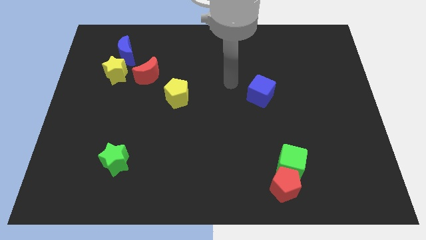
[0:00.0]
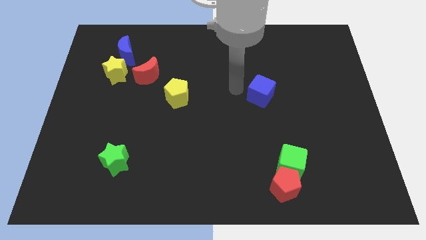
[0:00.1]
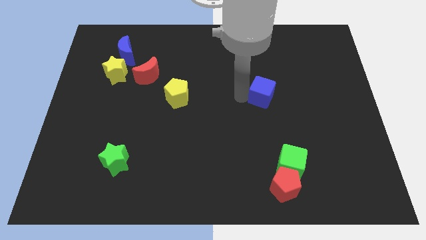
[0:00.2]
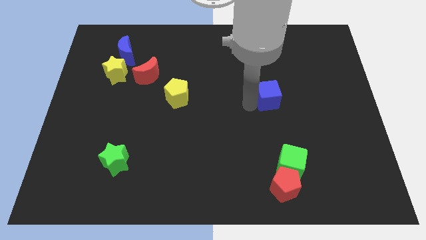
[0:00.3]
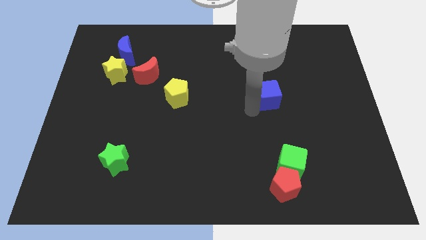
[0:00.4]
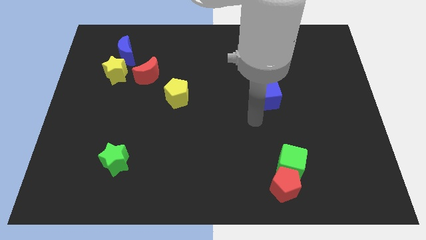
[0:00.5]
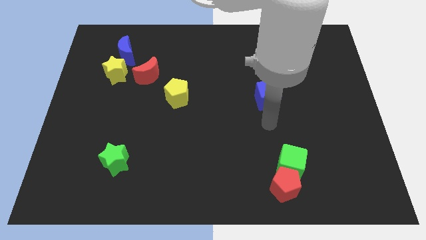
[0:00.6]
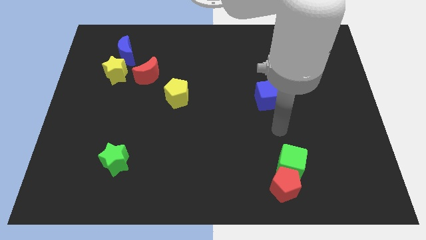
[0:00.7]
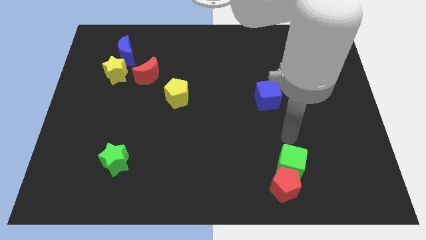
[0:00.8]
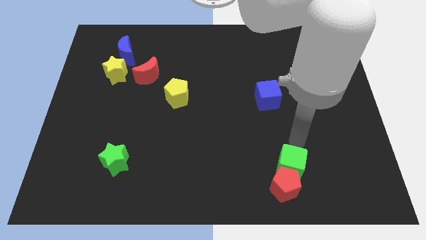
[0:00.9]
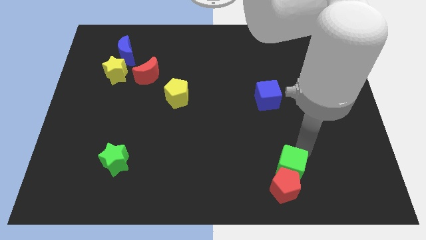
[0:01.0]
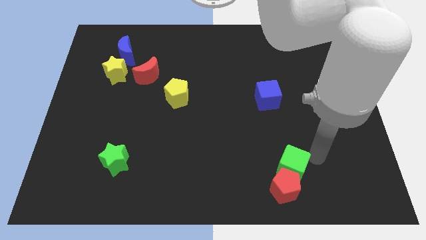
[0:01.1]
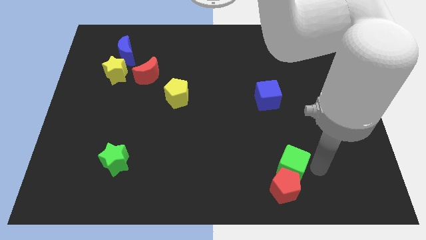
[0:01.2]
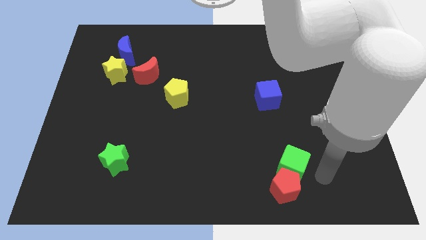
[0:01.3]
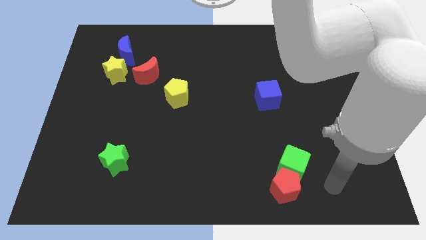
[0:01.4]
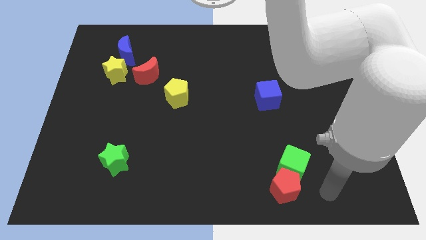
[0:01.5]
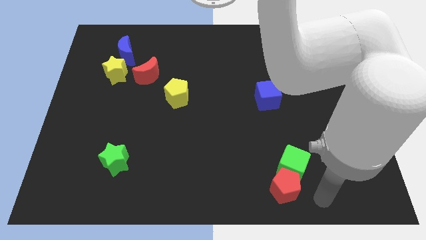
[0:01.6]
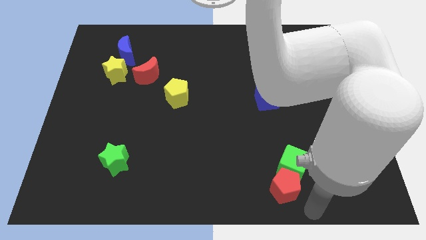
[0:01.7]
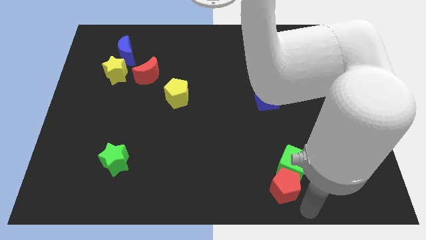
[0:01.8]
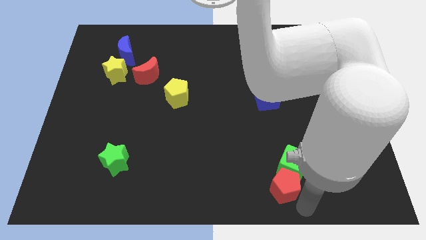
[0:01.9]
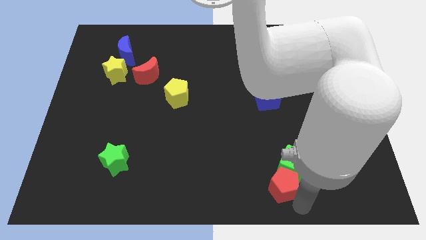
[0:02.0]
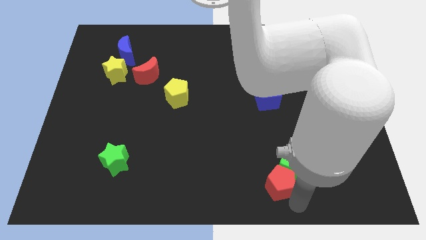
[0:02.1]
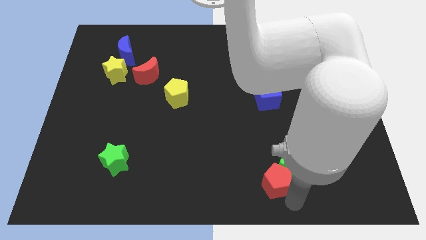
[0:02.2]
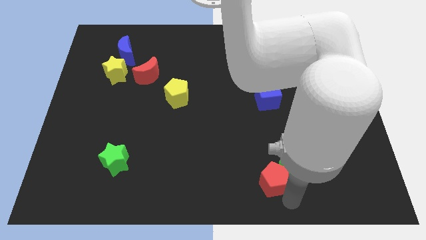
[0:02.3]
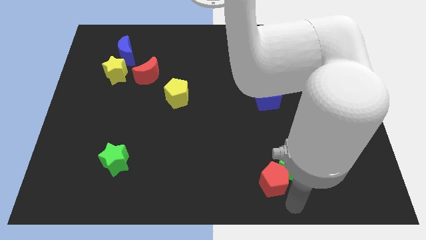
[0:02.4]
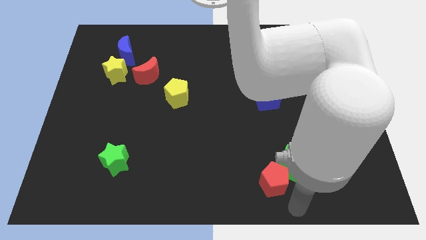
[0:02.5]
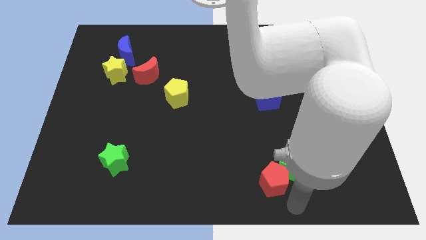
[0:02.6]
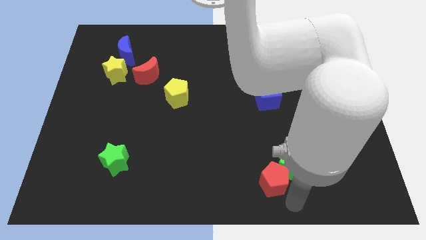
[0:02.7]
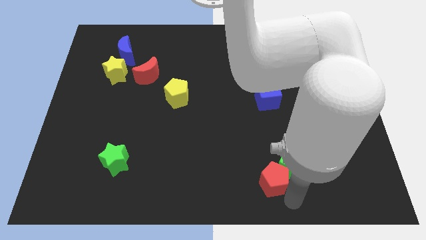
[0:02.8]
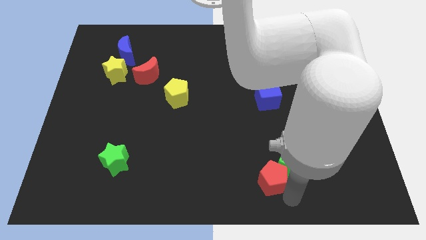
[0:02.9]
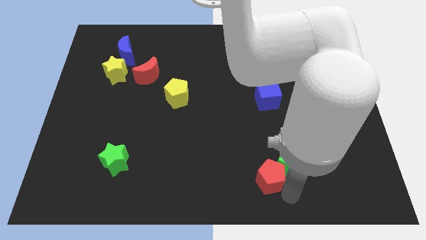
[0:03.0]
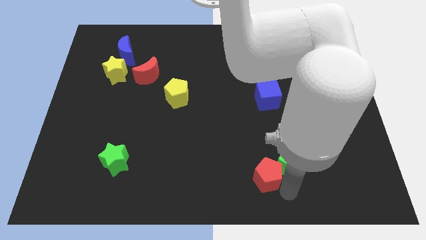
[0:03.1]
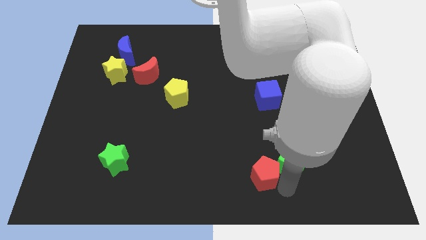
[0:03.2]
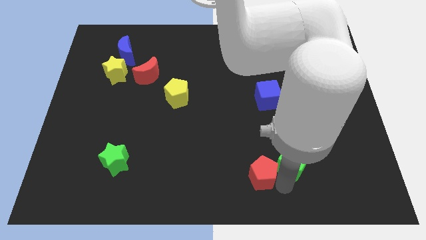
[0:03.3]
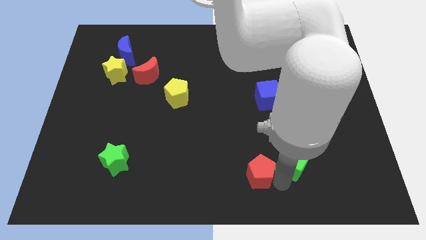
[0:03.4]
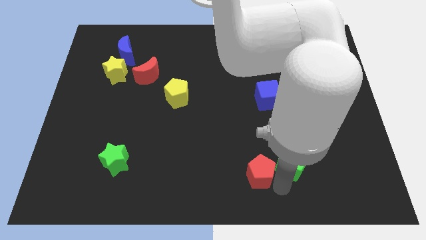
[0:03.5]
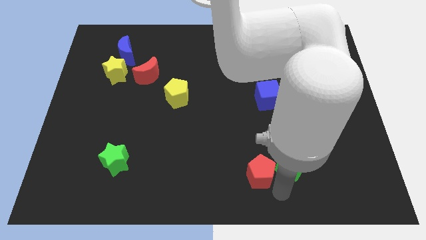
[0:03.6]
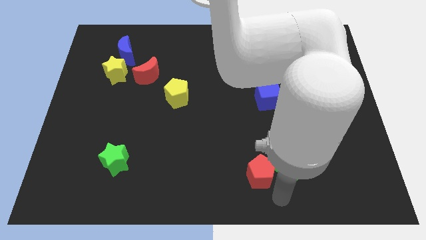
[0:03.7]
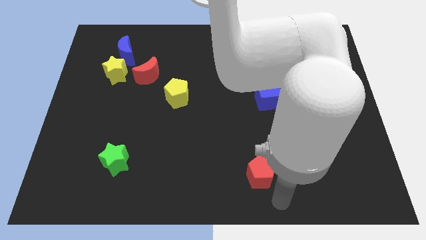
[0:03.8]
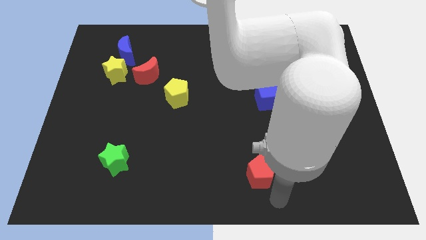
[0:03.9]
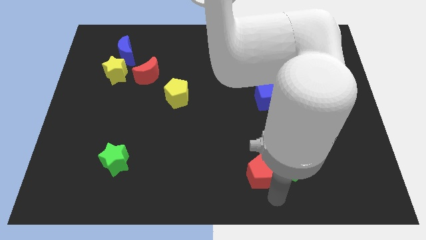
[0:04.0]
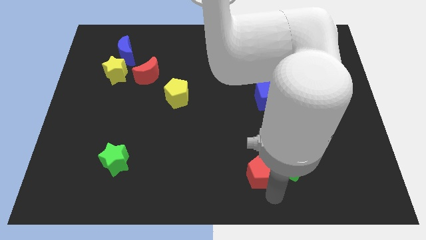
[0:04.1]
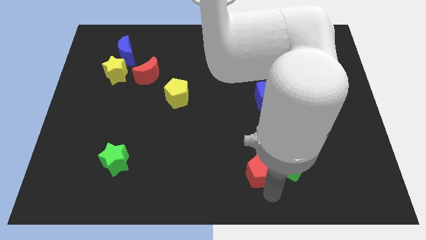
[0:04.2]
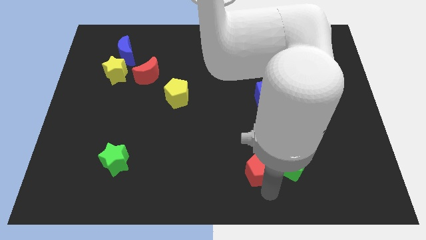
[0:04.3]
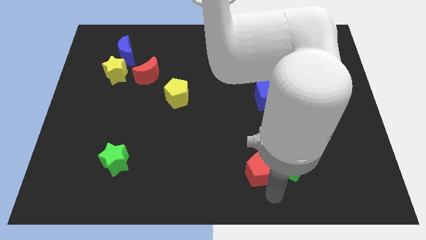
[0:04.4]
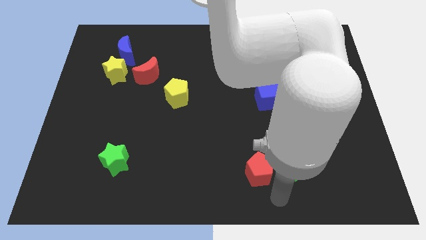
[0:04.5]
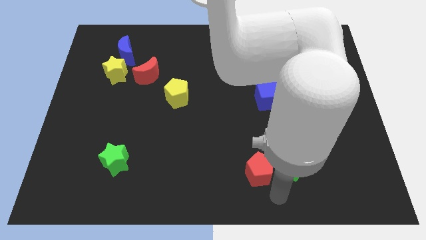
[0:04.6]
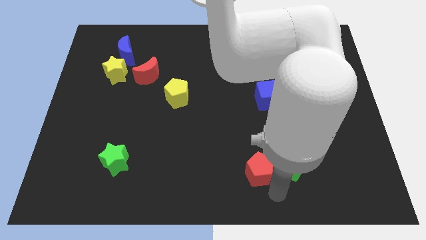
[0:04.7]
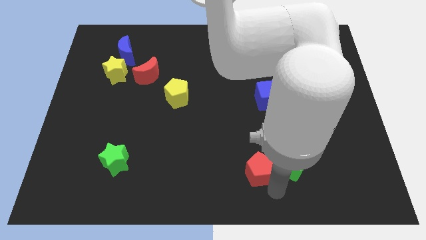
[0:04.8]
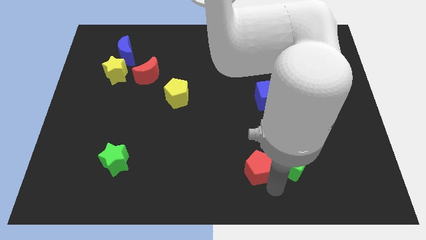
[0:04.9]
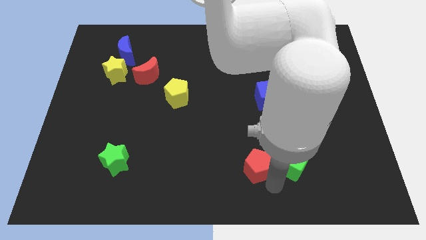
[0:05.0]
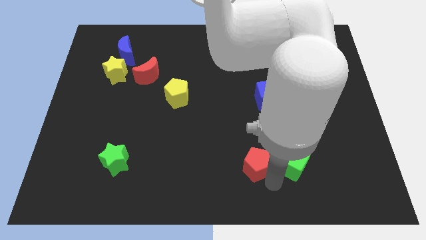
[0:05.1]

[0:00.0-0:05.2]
push the red pentagon slightly up and to the left diagonally

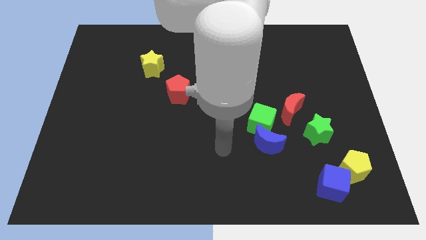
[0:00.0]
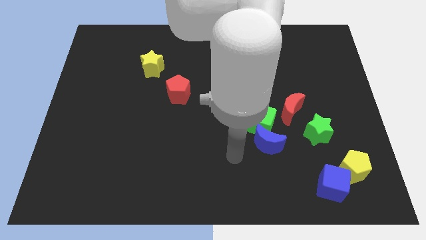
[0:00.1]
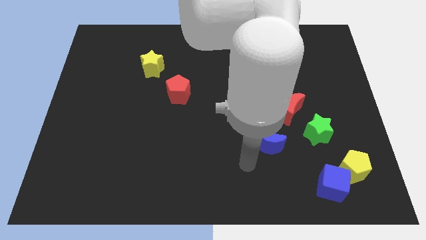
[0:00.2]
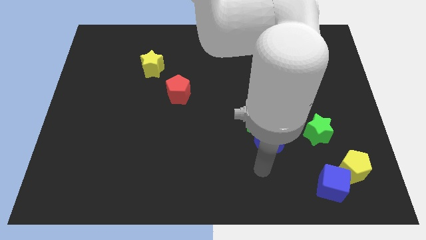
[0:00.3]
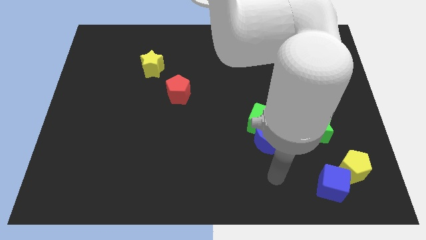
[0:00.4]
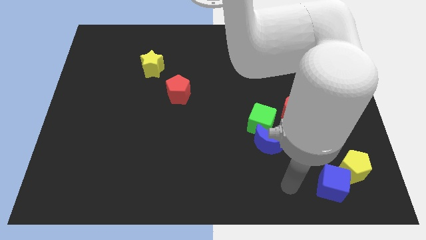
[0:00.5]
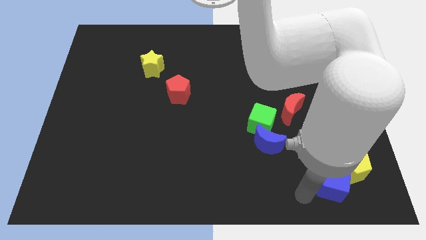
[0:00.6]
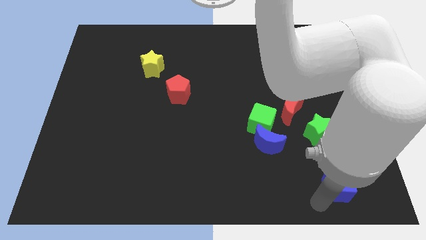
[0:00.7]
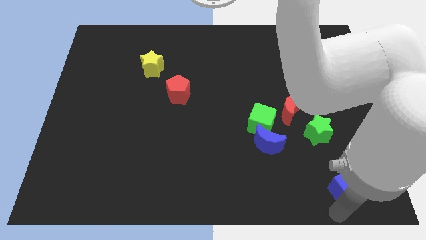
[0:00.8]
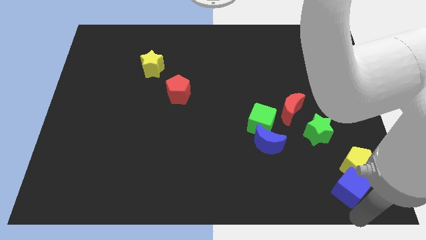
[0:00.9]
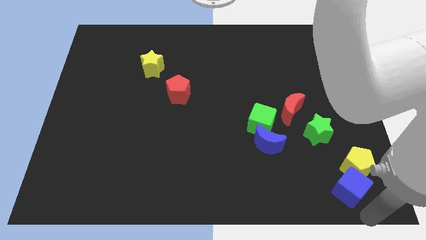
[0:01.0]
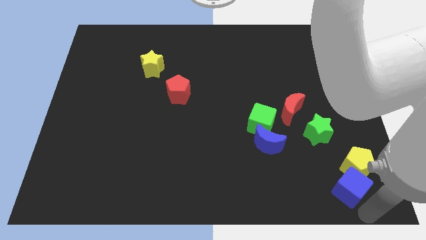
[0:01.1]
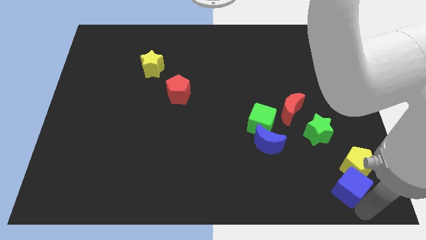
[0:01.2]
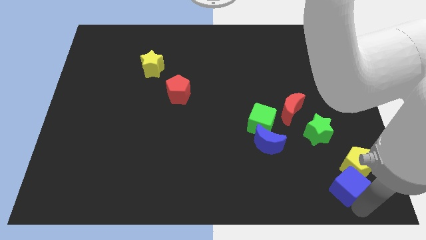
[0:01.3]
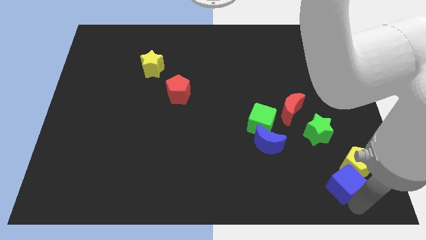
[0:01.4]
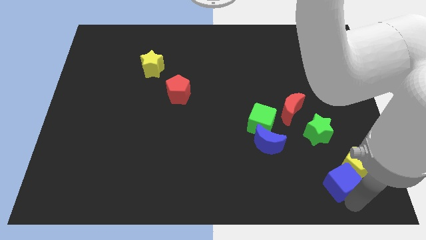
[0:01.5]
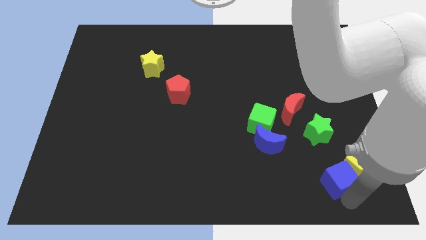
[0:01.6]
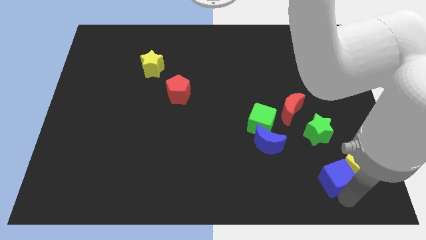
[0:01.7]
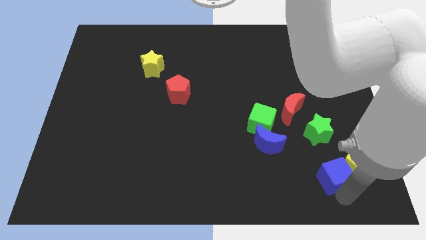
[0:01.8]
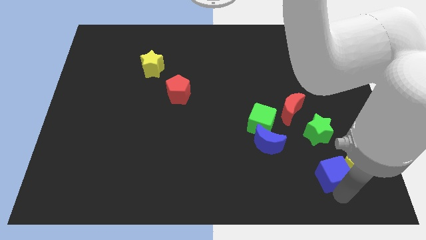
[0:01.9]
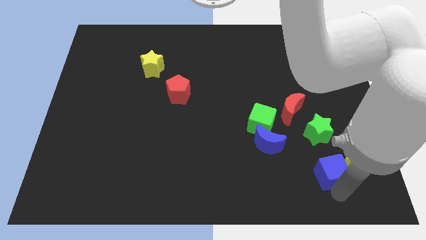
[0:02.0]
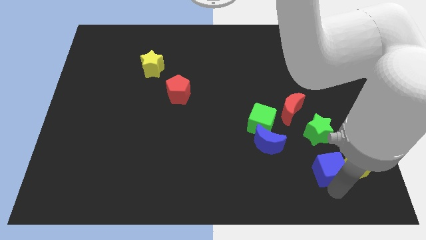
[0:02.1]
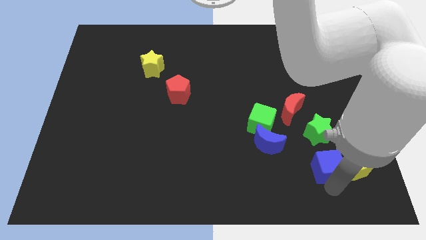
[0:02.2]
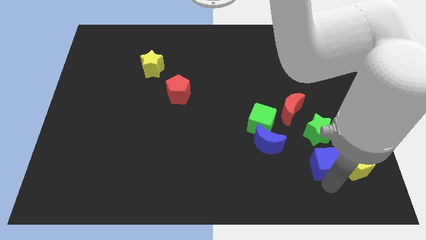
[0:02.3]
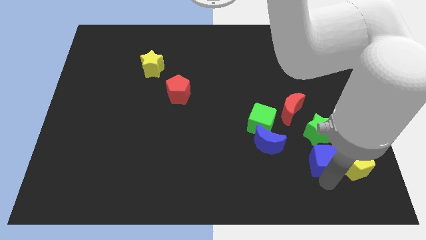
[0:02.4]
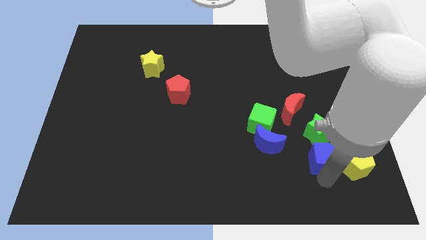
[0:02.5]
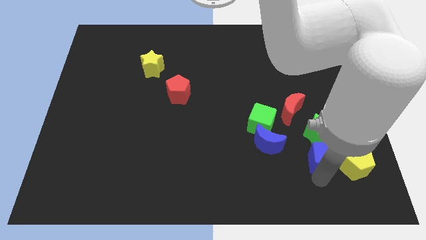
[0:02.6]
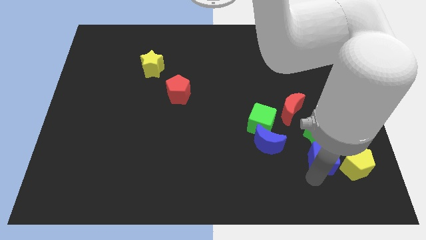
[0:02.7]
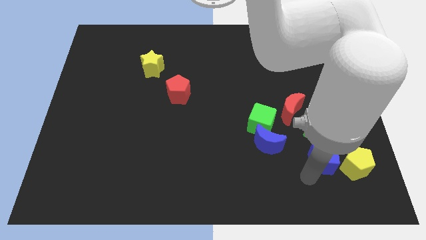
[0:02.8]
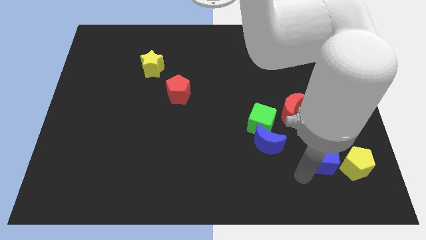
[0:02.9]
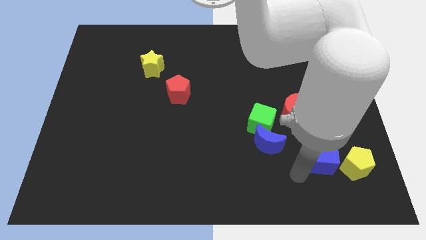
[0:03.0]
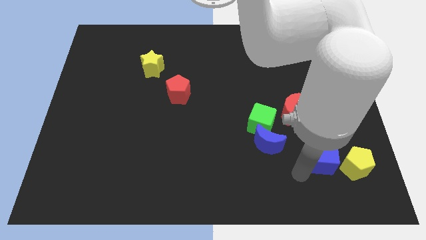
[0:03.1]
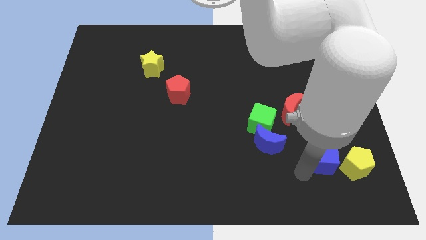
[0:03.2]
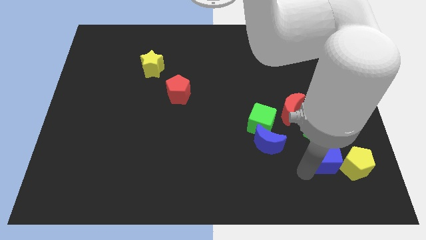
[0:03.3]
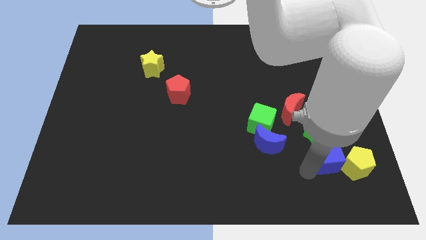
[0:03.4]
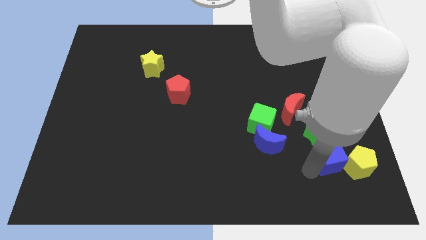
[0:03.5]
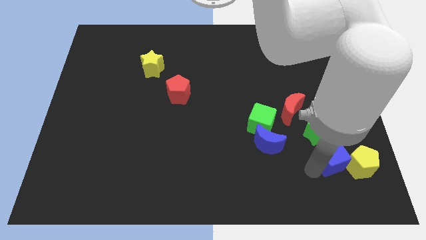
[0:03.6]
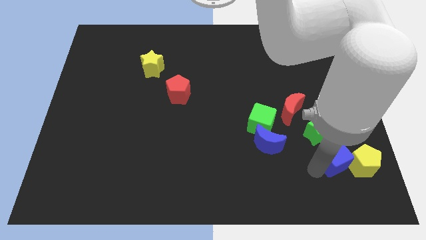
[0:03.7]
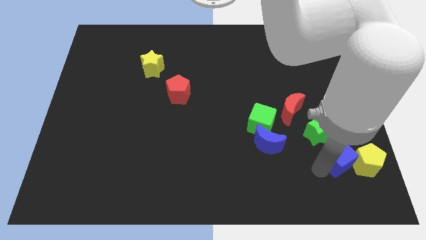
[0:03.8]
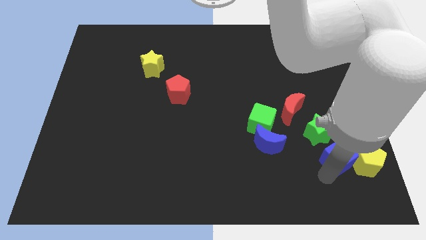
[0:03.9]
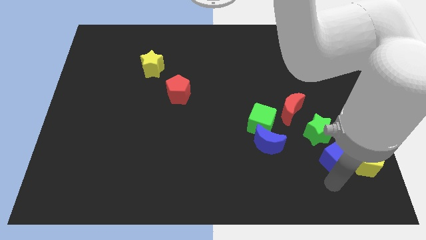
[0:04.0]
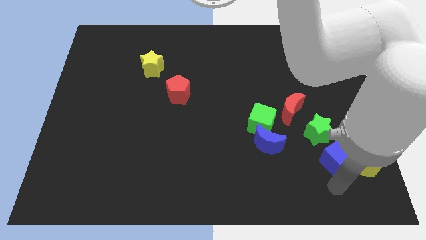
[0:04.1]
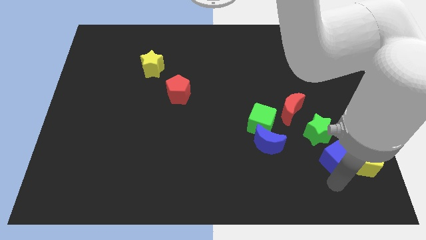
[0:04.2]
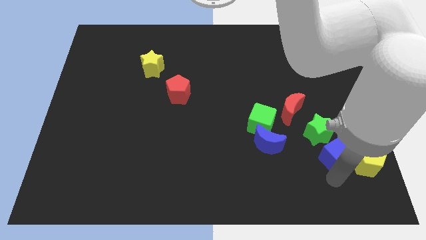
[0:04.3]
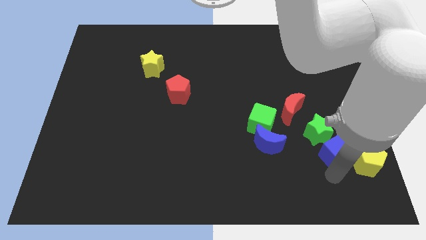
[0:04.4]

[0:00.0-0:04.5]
slightly push the blue cube upwards
